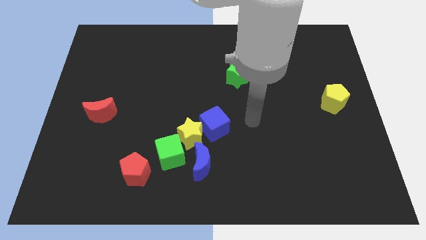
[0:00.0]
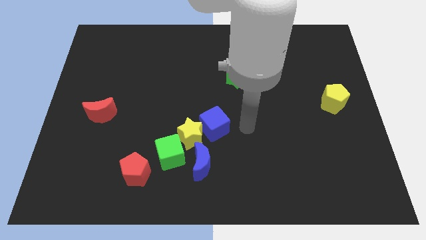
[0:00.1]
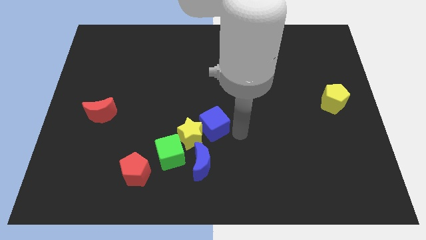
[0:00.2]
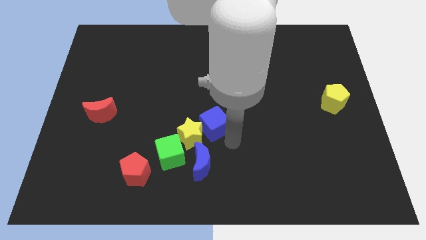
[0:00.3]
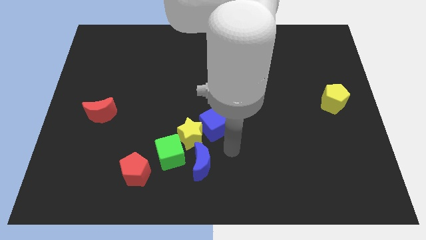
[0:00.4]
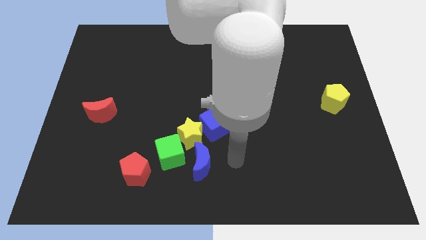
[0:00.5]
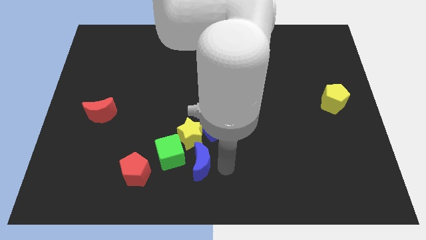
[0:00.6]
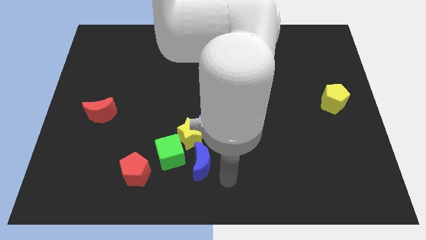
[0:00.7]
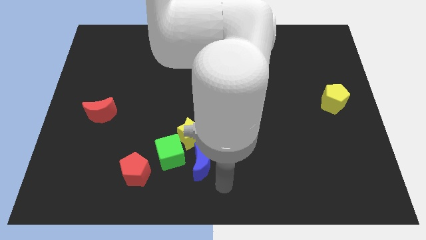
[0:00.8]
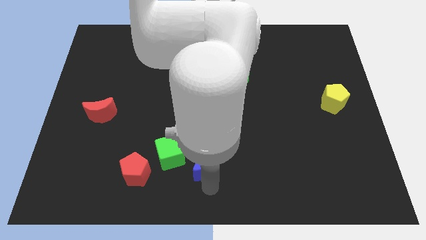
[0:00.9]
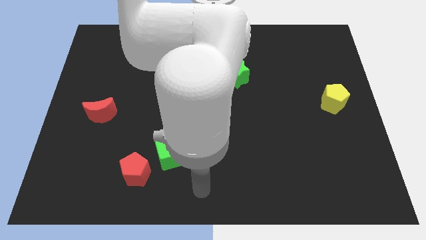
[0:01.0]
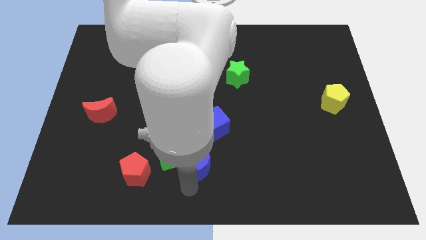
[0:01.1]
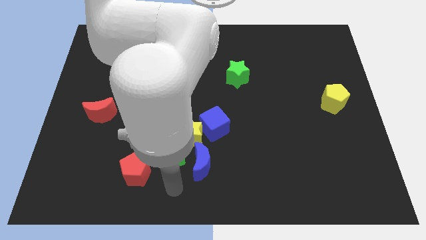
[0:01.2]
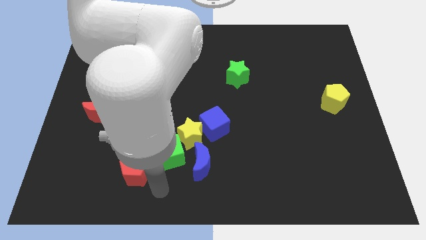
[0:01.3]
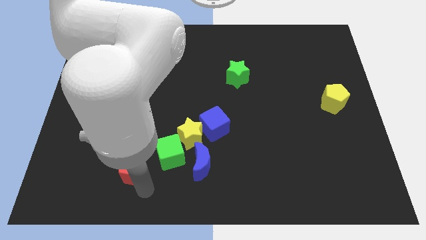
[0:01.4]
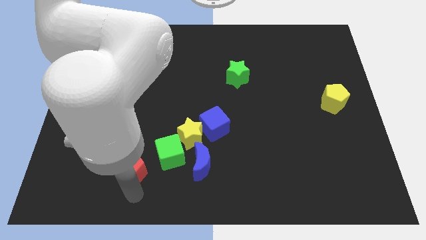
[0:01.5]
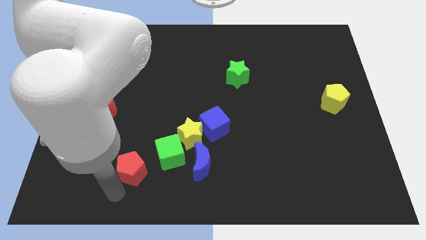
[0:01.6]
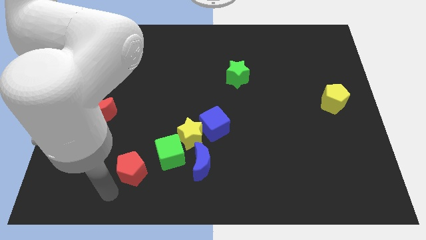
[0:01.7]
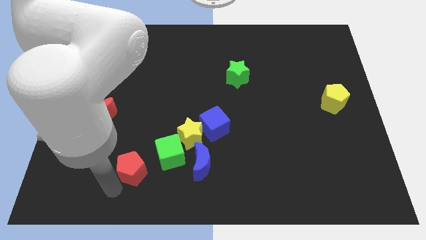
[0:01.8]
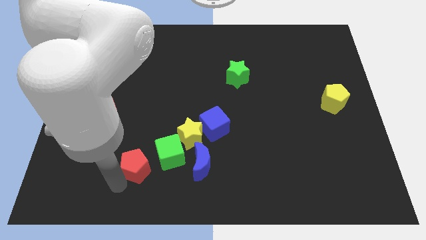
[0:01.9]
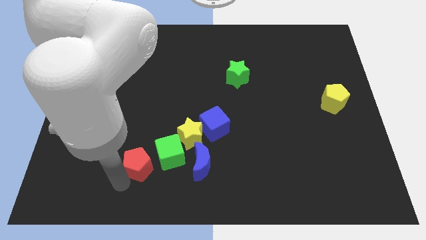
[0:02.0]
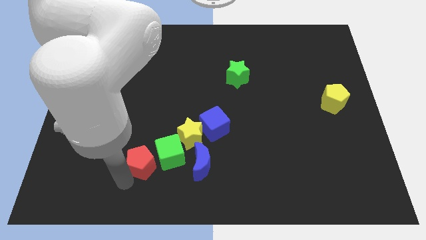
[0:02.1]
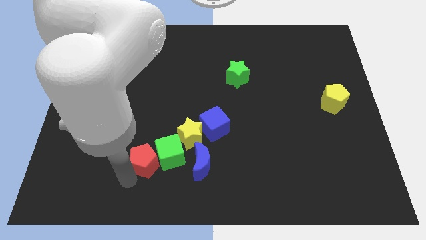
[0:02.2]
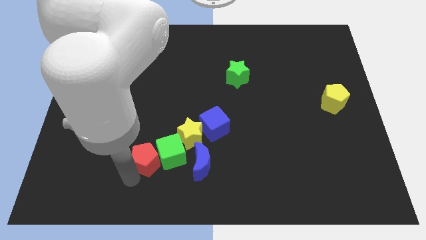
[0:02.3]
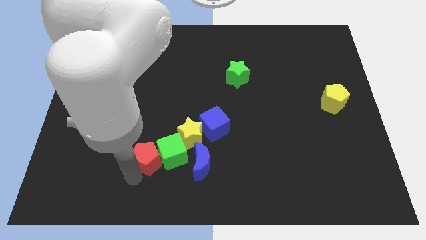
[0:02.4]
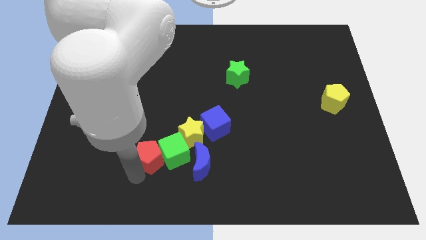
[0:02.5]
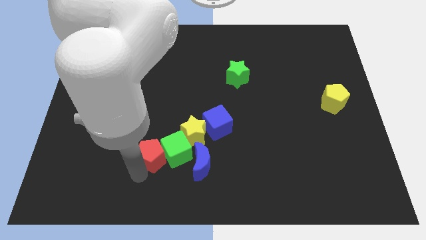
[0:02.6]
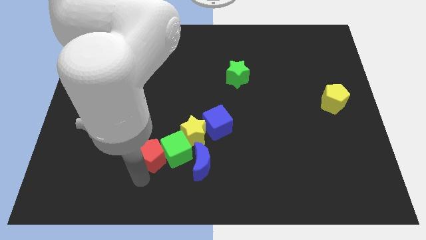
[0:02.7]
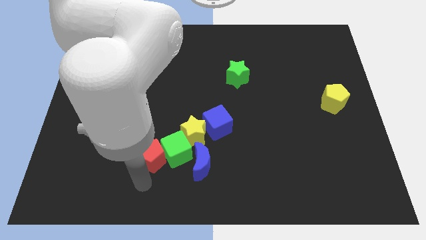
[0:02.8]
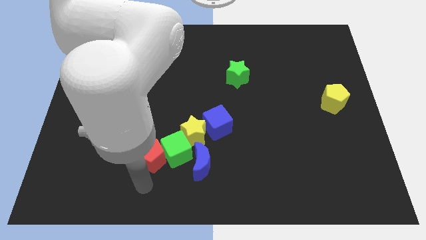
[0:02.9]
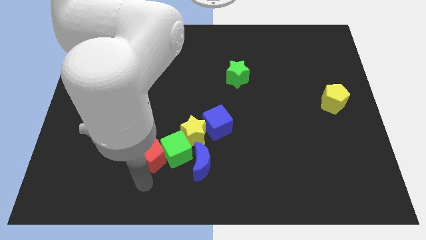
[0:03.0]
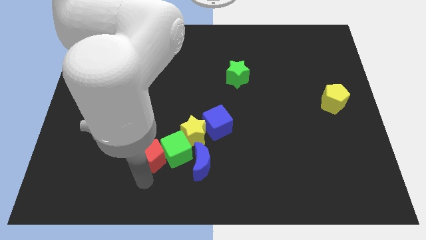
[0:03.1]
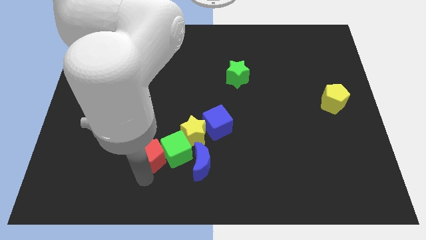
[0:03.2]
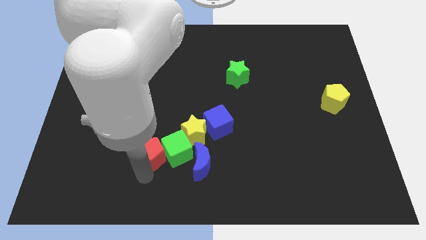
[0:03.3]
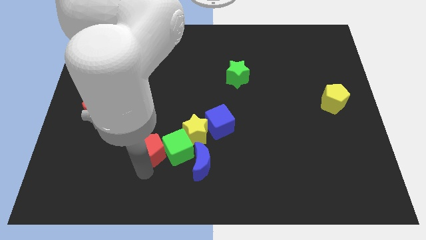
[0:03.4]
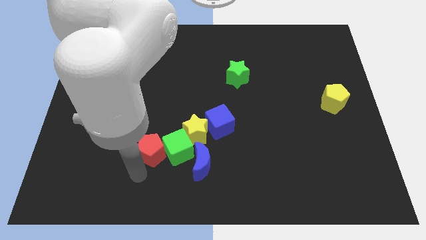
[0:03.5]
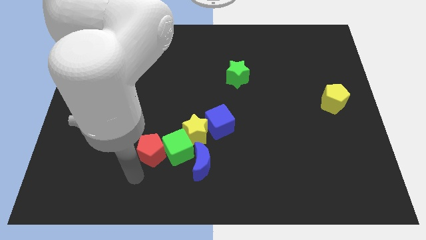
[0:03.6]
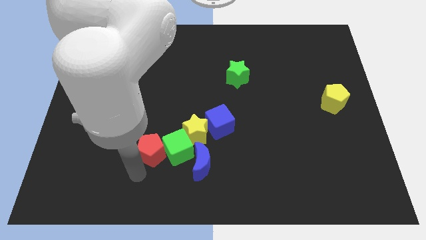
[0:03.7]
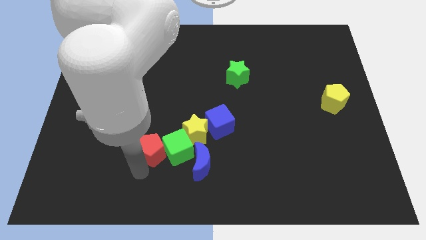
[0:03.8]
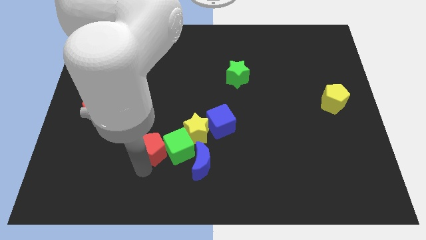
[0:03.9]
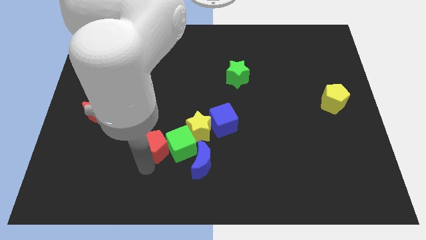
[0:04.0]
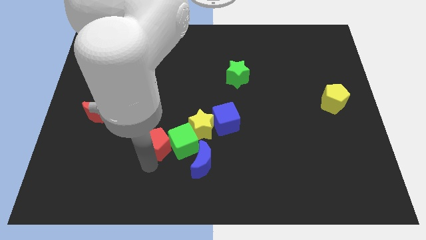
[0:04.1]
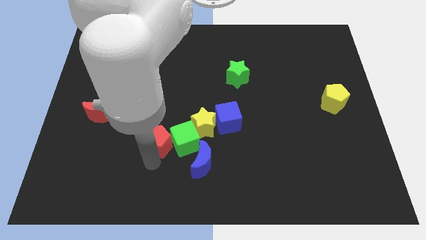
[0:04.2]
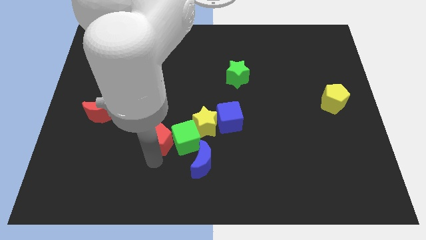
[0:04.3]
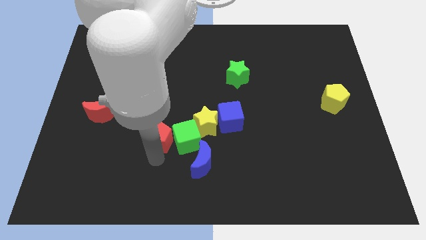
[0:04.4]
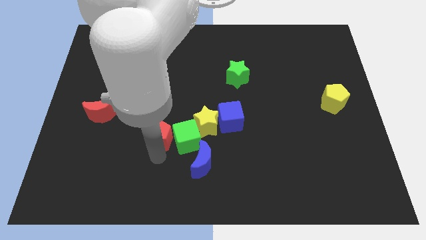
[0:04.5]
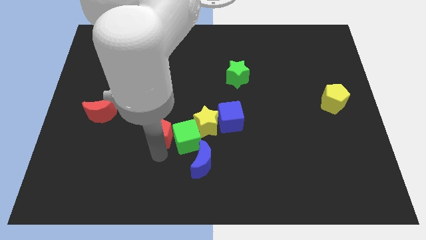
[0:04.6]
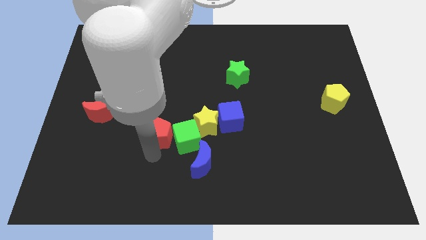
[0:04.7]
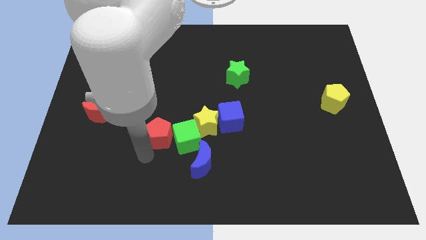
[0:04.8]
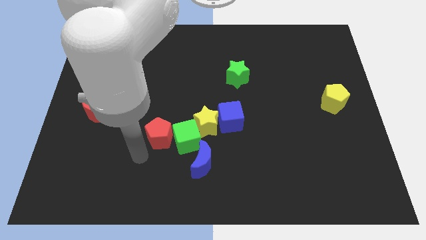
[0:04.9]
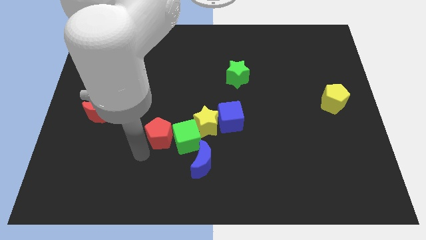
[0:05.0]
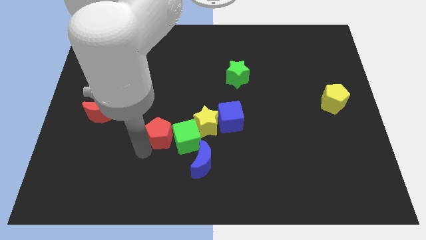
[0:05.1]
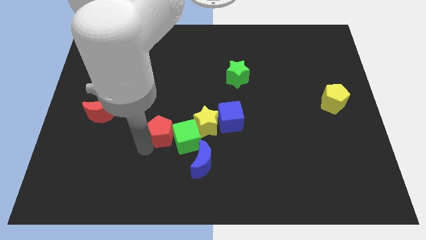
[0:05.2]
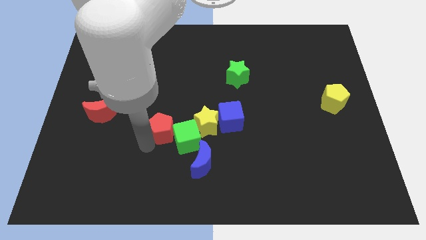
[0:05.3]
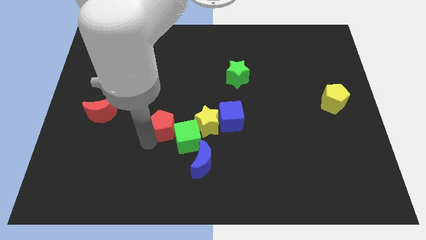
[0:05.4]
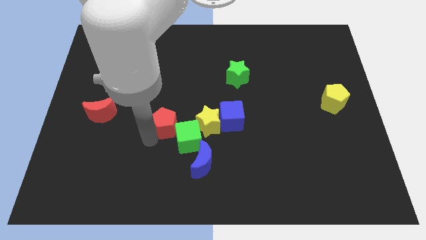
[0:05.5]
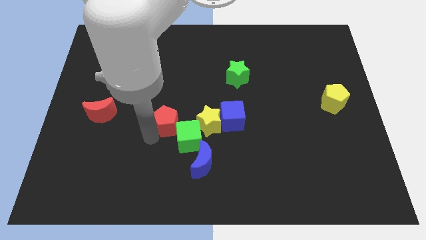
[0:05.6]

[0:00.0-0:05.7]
move the red pentagon to the center of the board

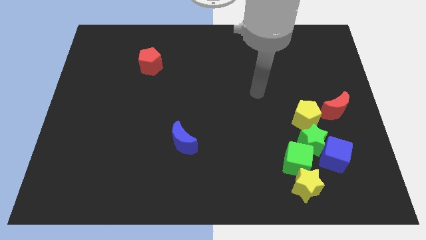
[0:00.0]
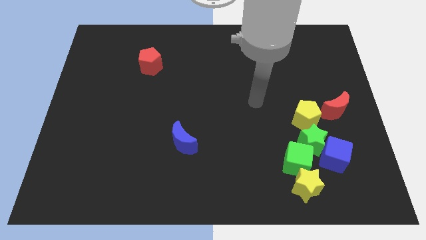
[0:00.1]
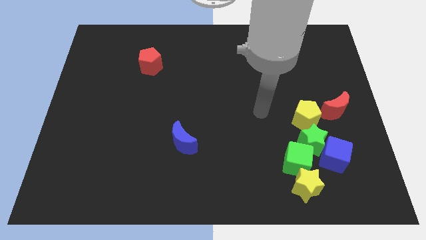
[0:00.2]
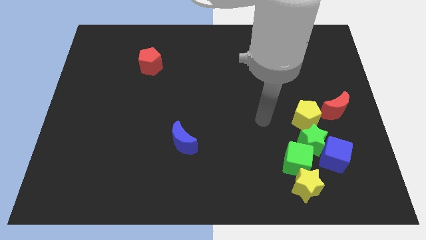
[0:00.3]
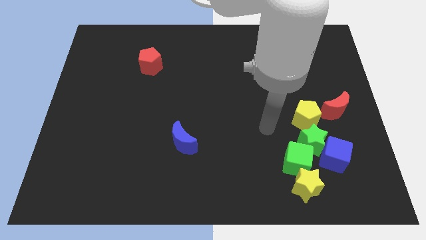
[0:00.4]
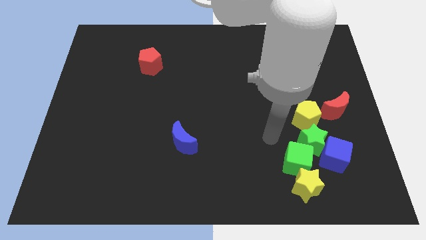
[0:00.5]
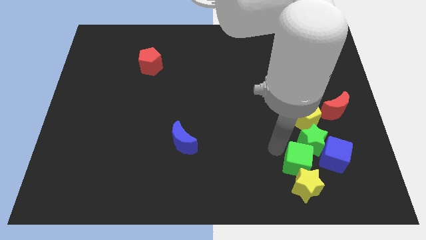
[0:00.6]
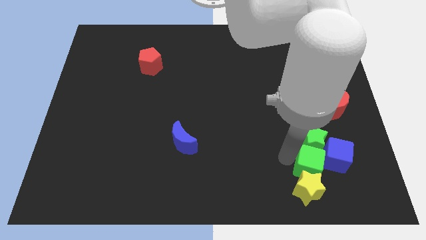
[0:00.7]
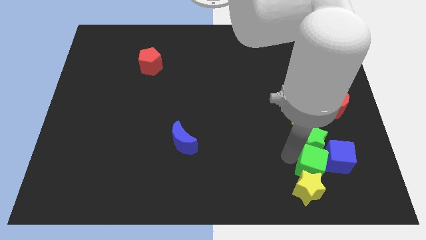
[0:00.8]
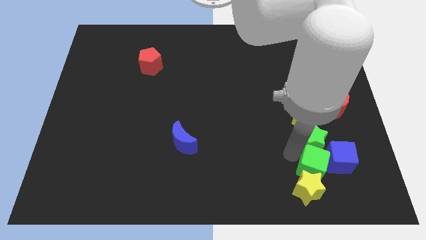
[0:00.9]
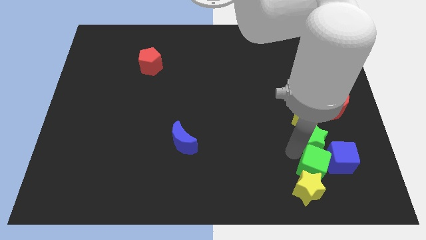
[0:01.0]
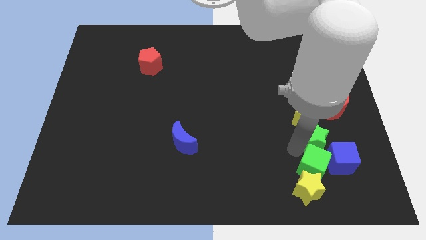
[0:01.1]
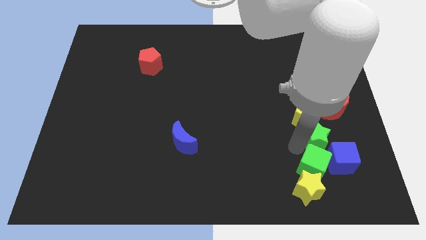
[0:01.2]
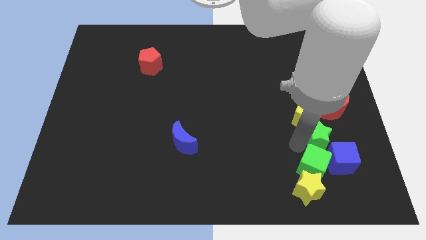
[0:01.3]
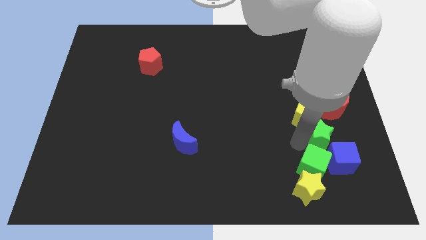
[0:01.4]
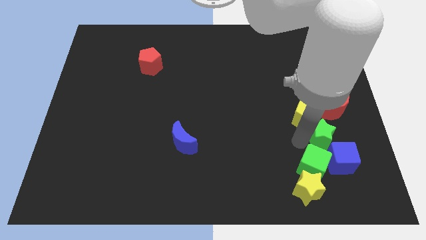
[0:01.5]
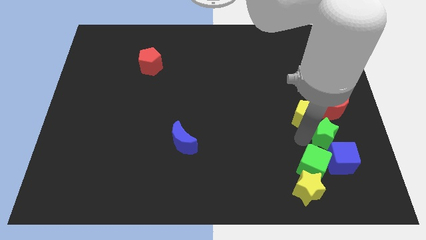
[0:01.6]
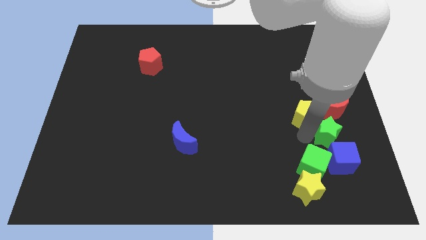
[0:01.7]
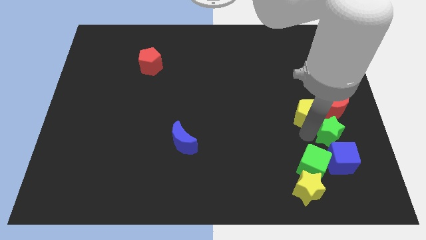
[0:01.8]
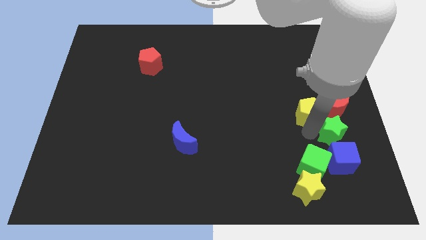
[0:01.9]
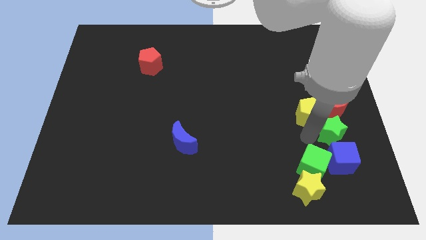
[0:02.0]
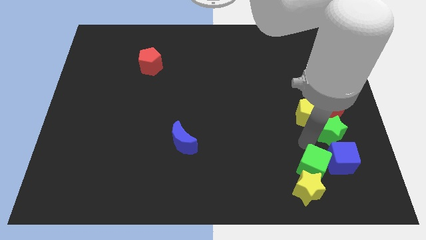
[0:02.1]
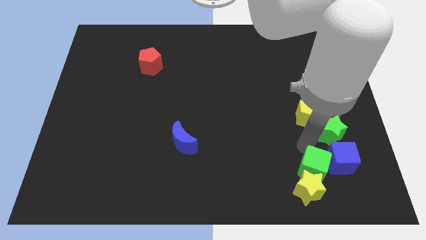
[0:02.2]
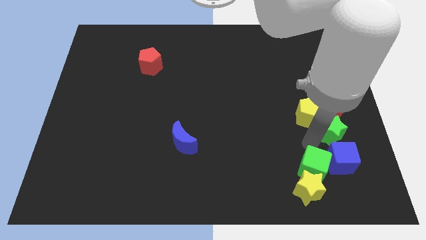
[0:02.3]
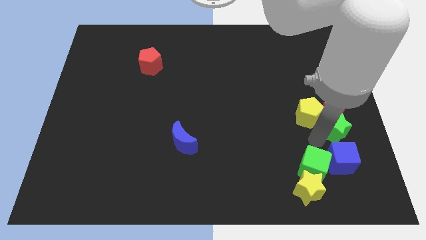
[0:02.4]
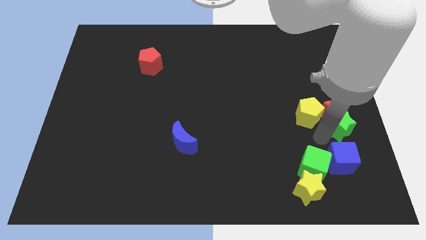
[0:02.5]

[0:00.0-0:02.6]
move the green star to the center right

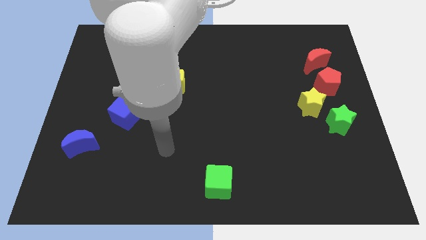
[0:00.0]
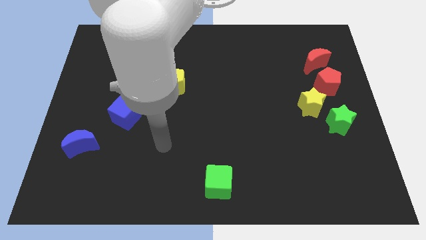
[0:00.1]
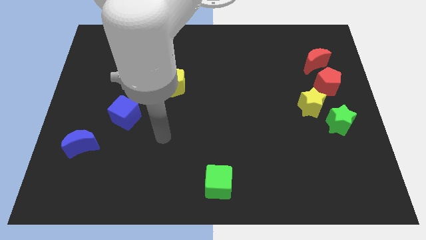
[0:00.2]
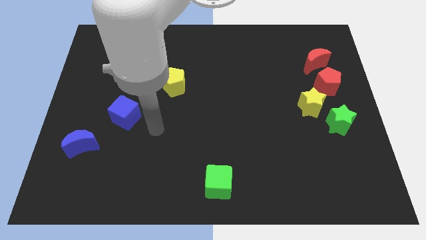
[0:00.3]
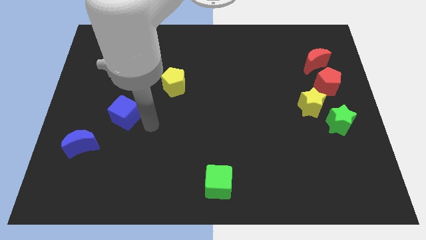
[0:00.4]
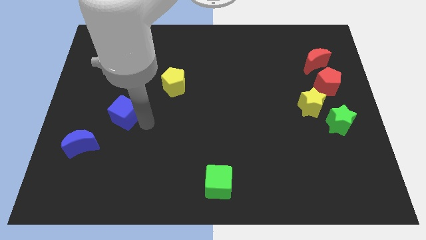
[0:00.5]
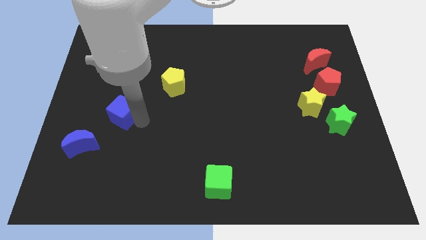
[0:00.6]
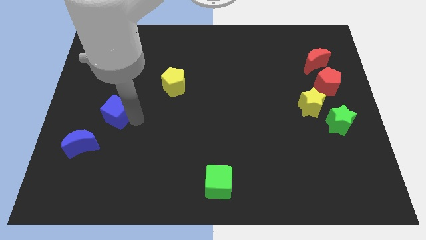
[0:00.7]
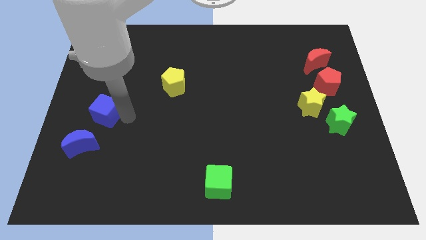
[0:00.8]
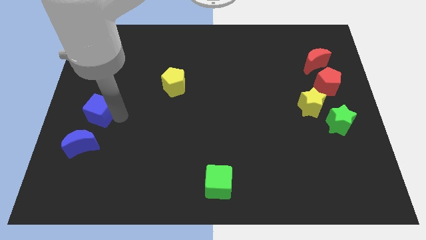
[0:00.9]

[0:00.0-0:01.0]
put the blue cube to the left side of the board
